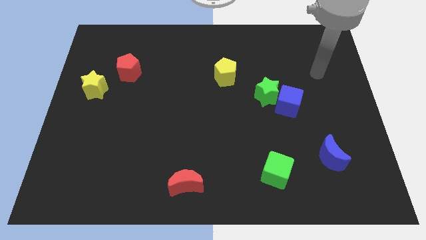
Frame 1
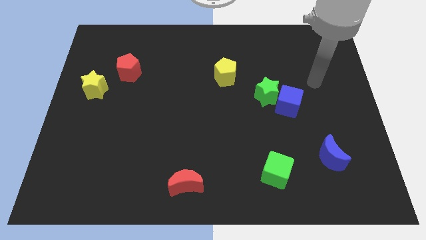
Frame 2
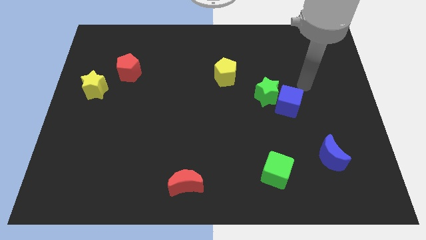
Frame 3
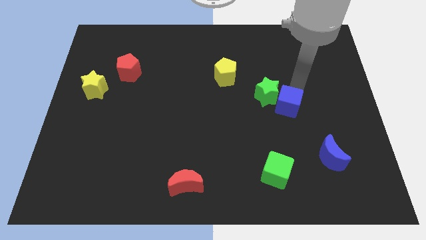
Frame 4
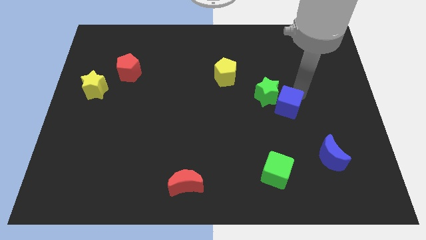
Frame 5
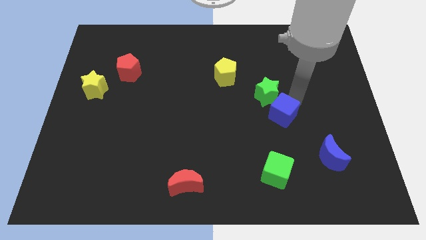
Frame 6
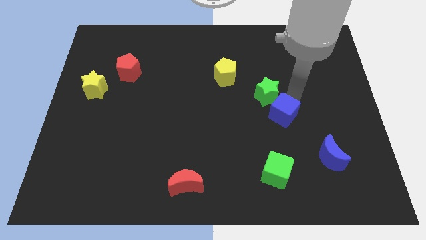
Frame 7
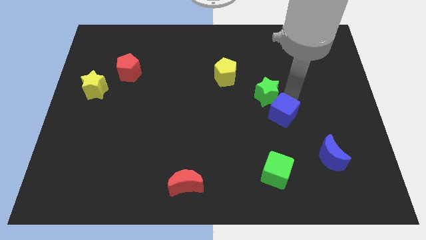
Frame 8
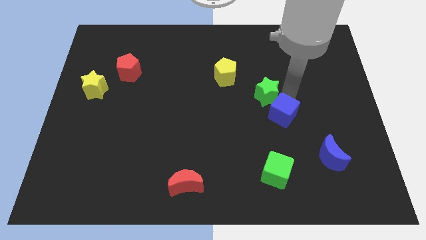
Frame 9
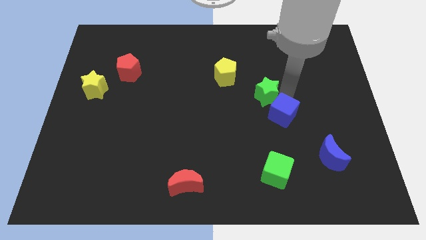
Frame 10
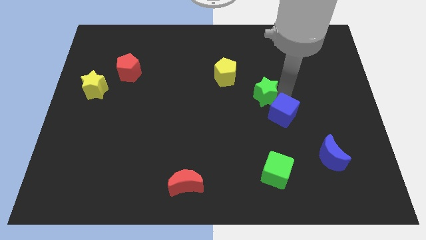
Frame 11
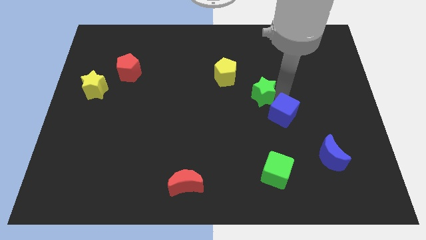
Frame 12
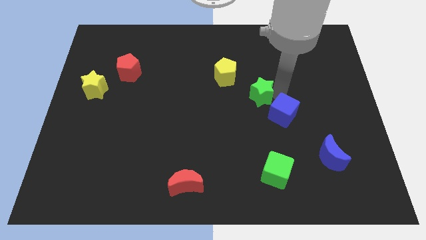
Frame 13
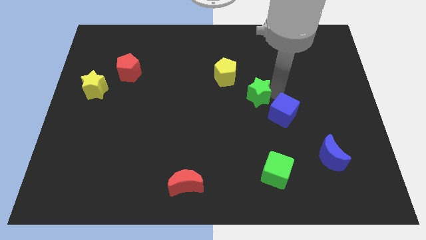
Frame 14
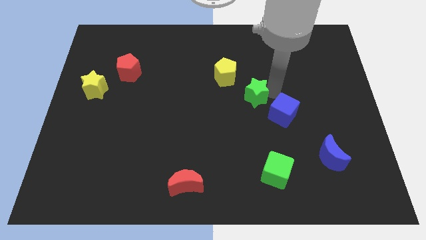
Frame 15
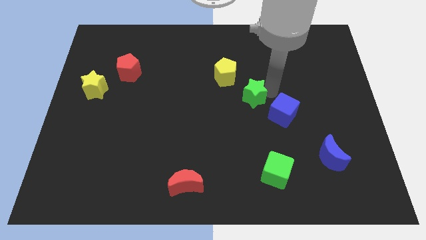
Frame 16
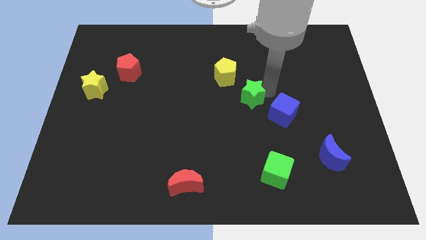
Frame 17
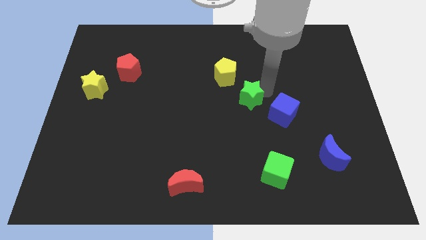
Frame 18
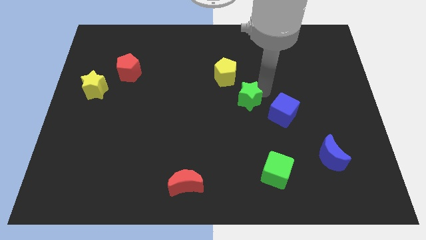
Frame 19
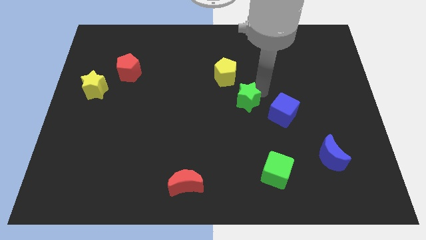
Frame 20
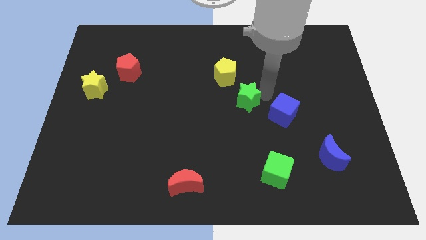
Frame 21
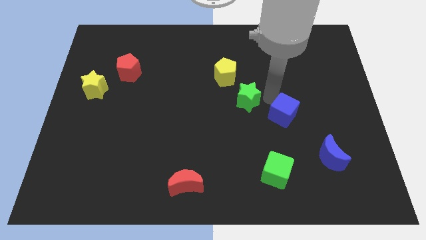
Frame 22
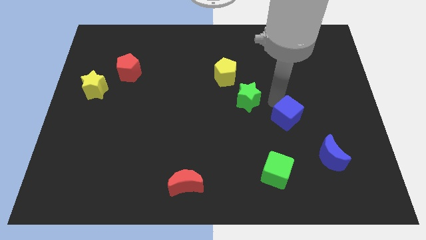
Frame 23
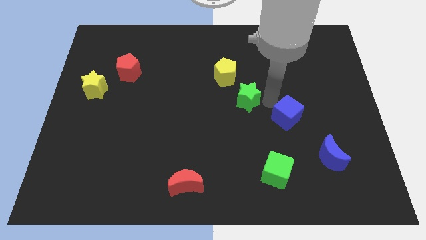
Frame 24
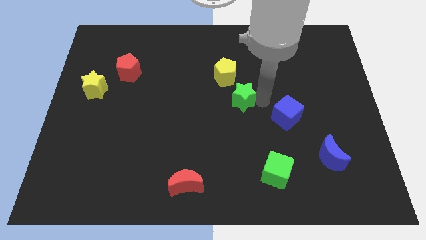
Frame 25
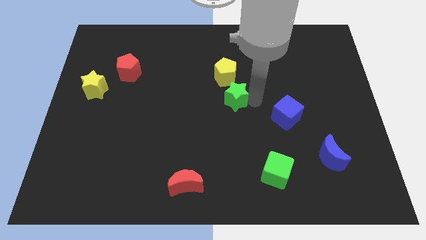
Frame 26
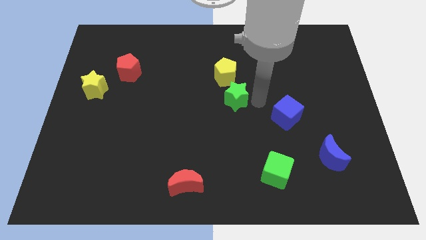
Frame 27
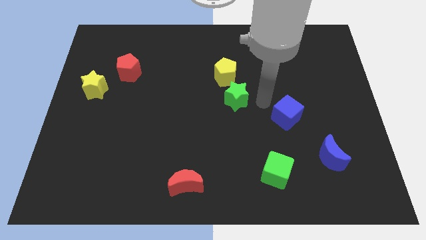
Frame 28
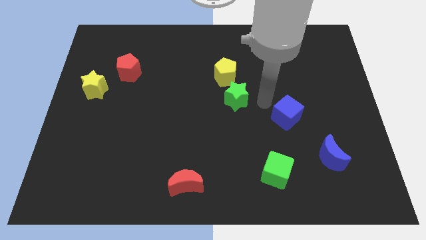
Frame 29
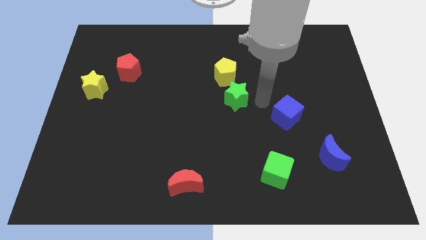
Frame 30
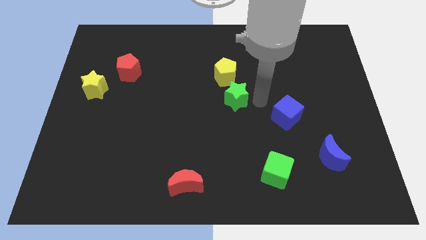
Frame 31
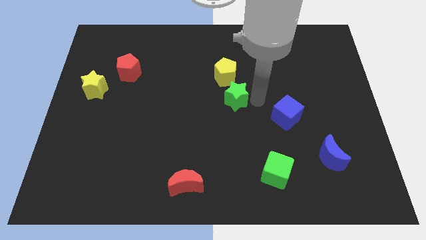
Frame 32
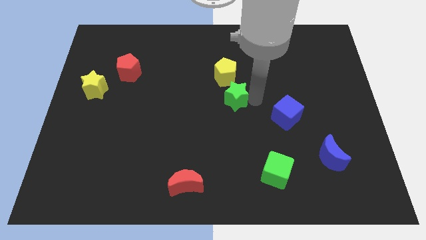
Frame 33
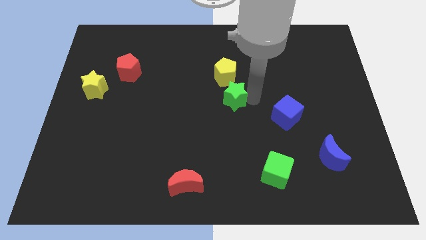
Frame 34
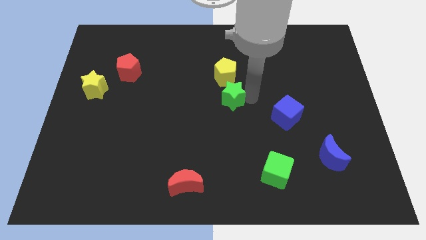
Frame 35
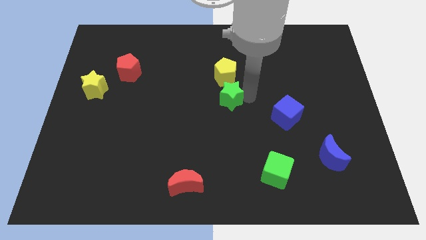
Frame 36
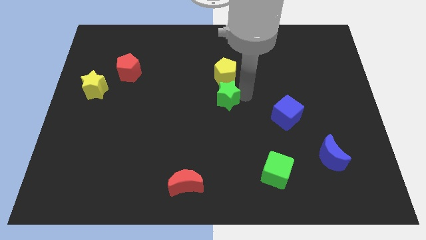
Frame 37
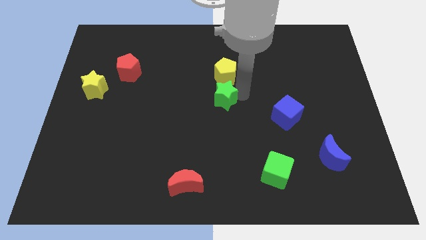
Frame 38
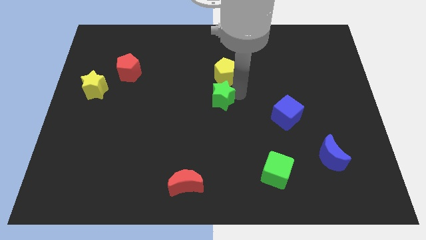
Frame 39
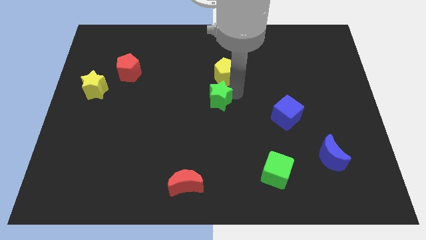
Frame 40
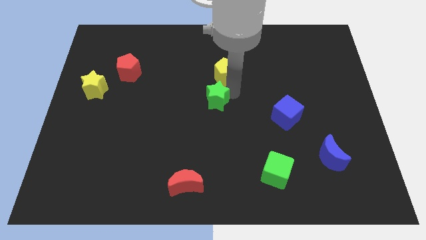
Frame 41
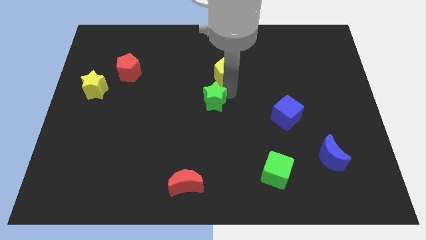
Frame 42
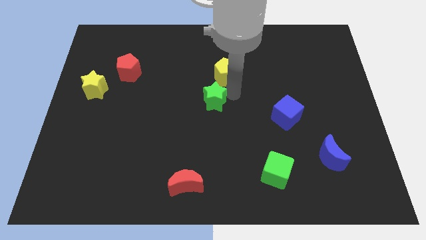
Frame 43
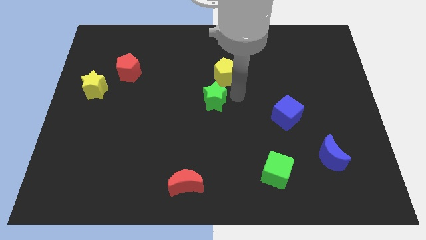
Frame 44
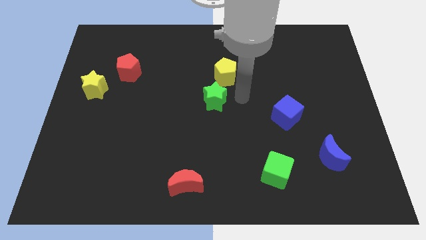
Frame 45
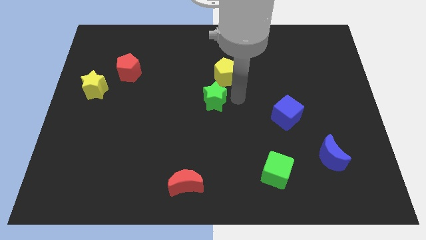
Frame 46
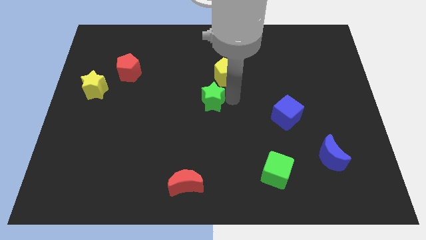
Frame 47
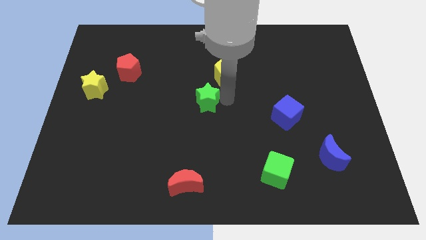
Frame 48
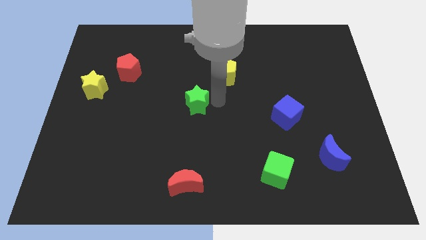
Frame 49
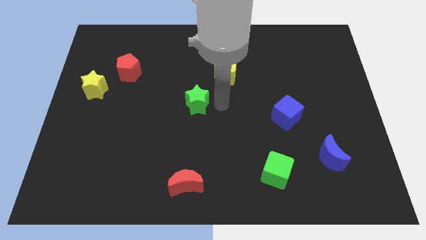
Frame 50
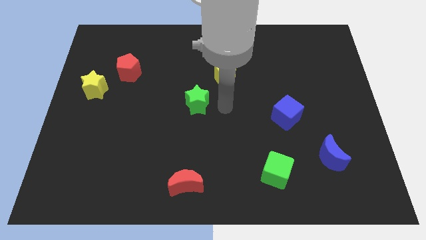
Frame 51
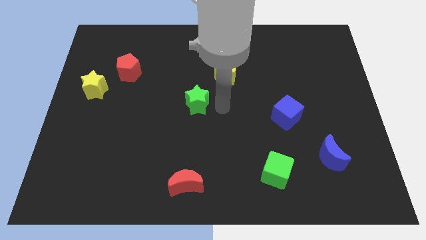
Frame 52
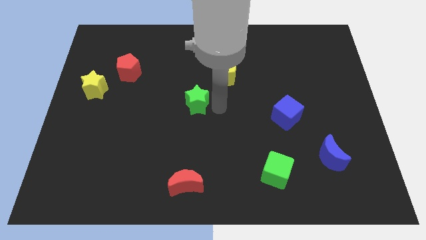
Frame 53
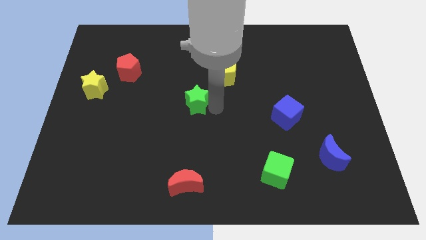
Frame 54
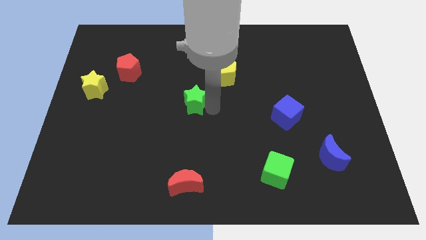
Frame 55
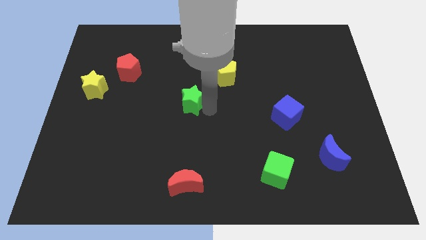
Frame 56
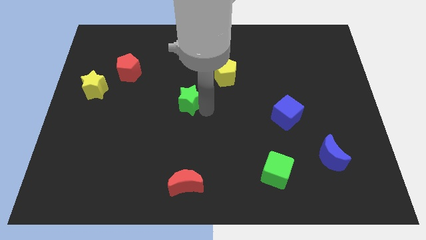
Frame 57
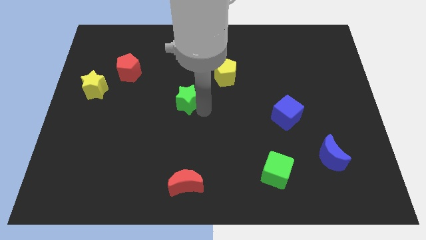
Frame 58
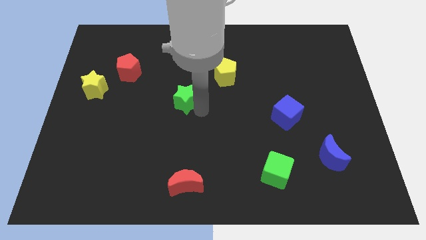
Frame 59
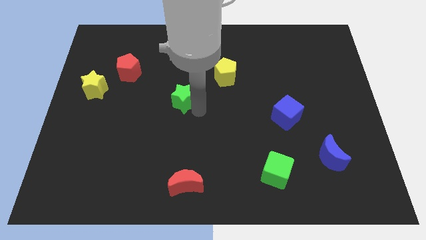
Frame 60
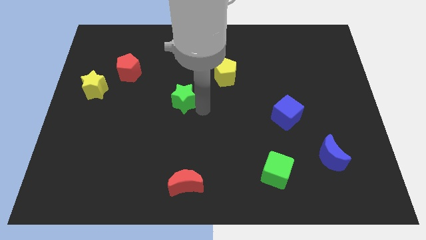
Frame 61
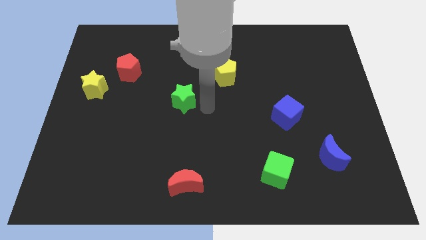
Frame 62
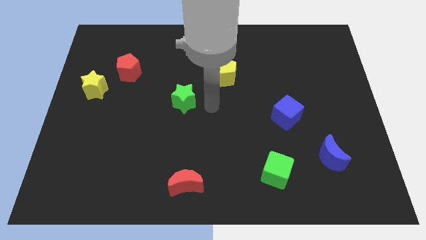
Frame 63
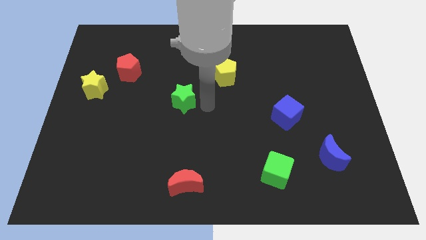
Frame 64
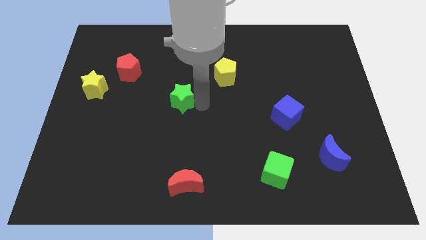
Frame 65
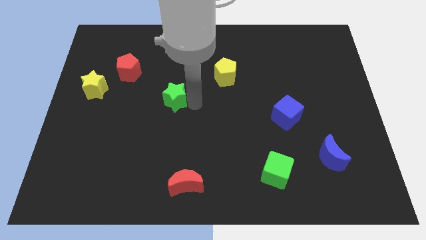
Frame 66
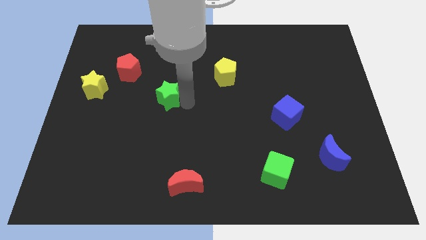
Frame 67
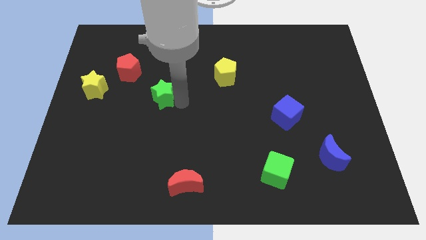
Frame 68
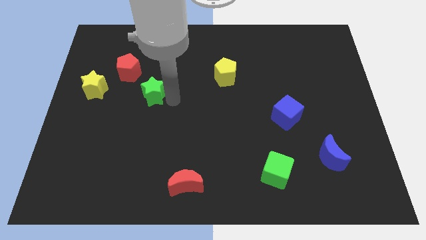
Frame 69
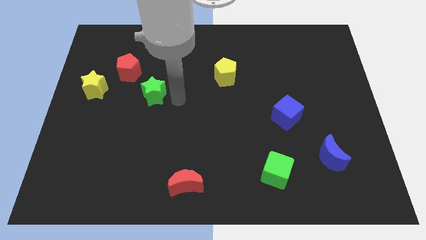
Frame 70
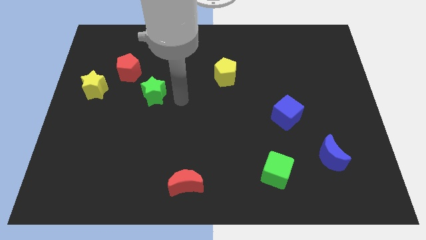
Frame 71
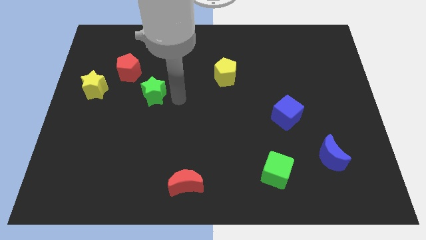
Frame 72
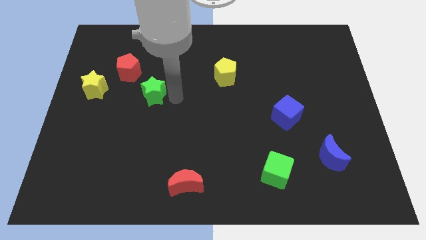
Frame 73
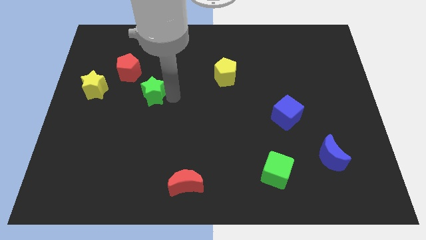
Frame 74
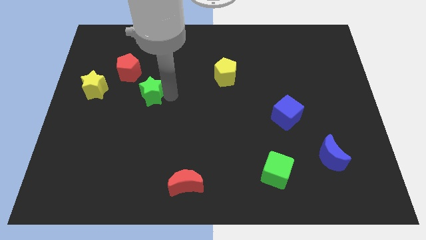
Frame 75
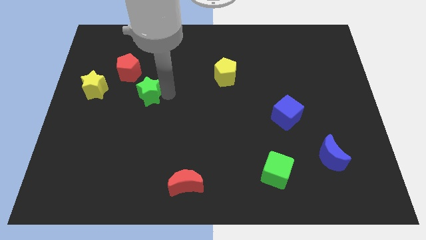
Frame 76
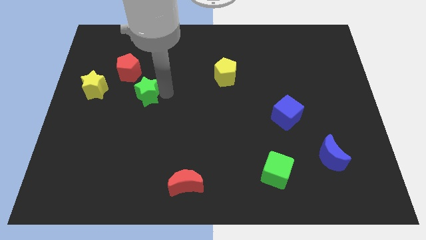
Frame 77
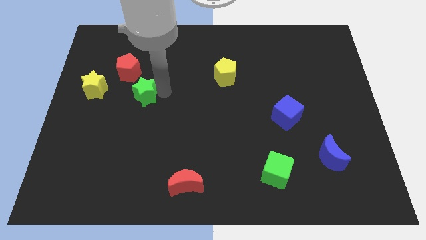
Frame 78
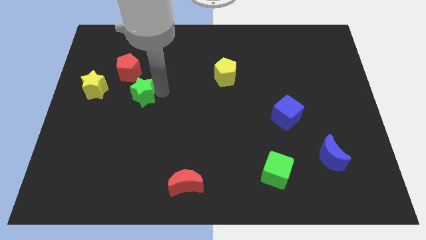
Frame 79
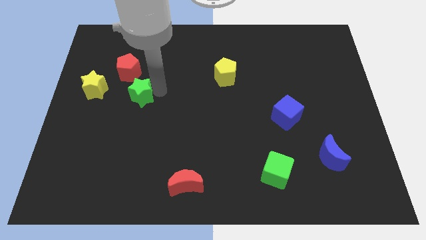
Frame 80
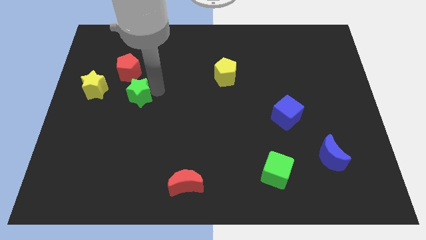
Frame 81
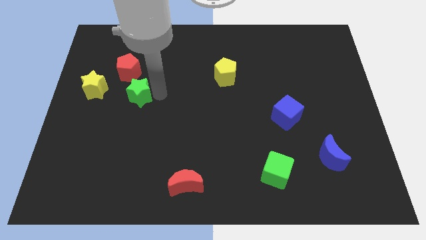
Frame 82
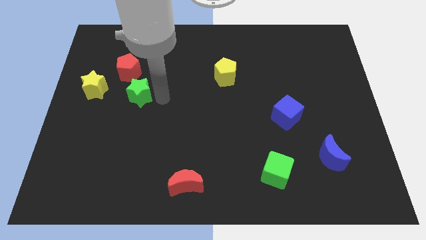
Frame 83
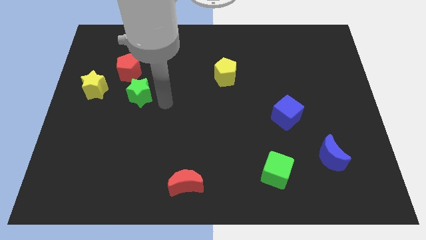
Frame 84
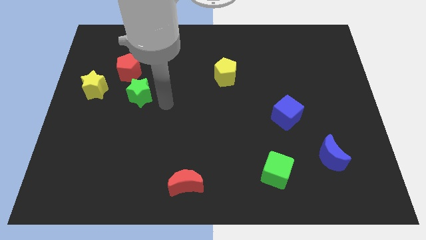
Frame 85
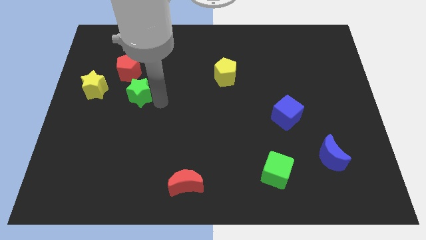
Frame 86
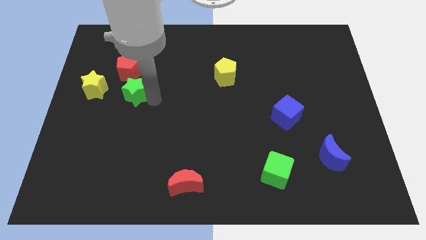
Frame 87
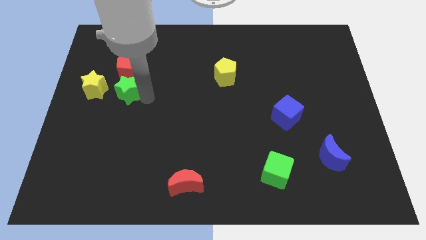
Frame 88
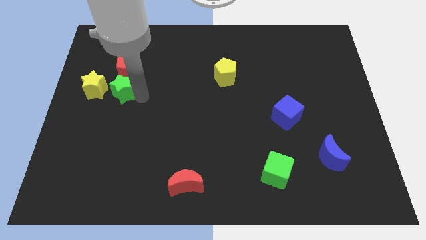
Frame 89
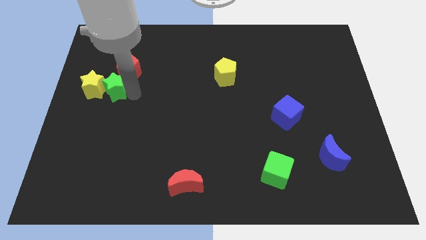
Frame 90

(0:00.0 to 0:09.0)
slide the green star to the yellow star
